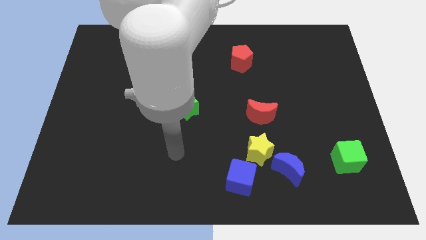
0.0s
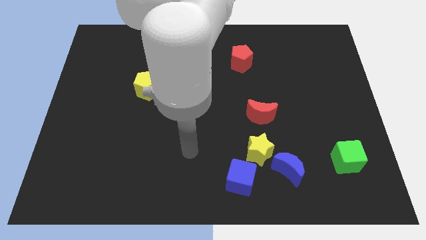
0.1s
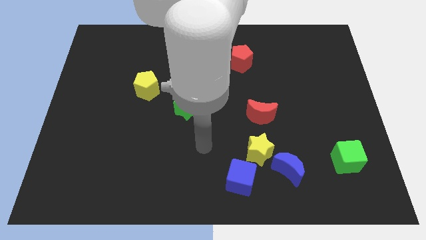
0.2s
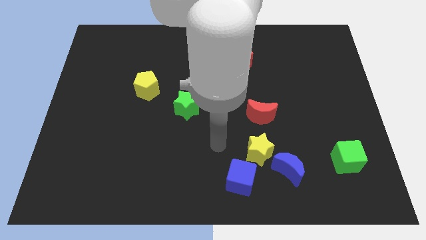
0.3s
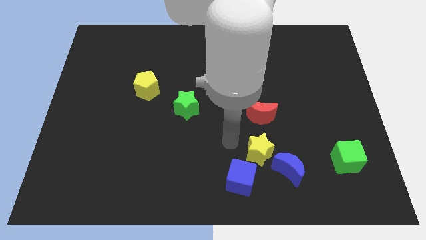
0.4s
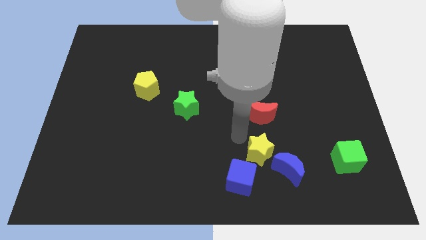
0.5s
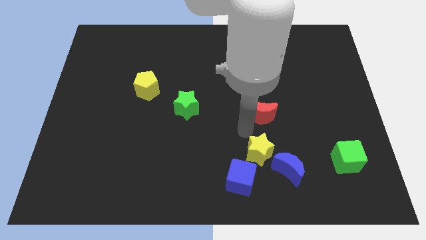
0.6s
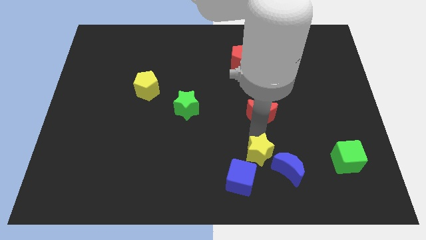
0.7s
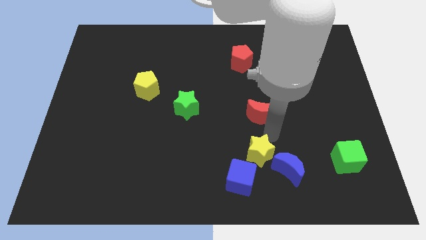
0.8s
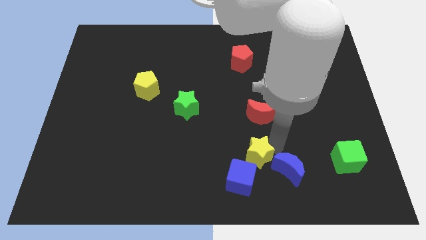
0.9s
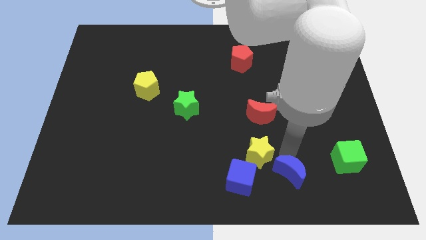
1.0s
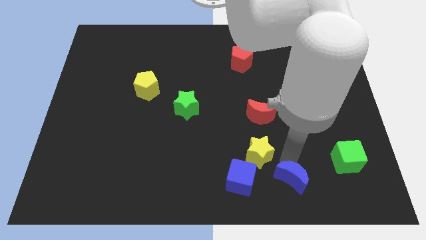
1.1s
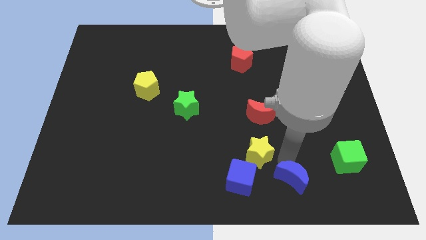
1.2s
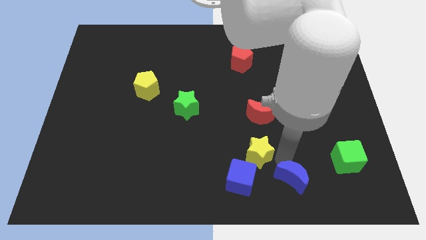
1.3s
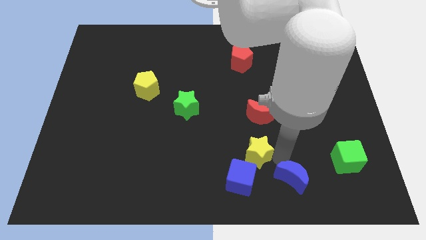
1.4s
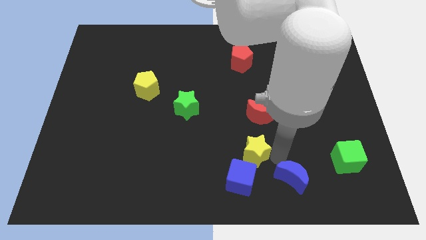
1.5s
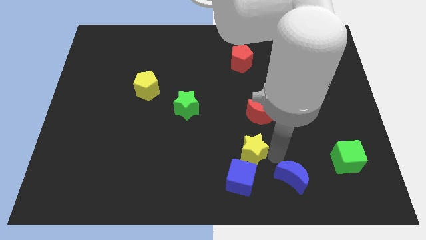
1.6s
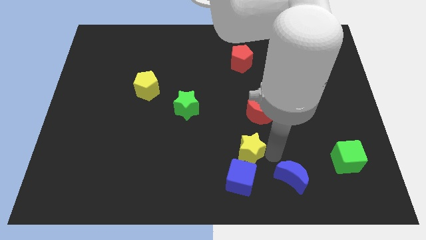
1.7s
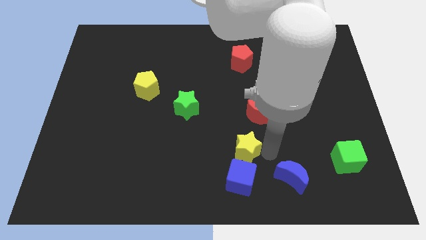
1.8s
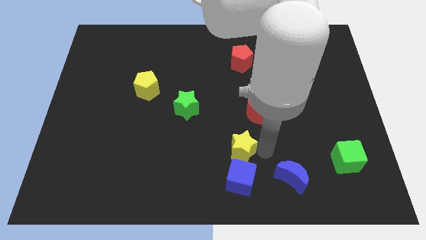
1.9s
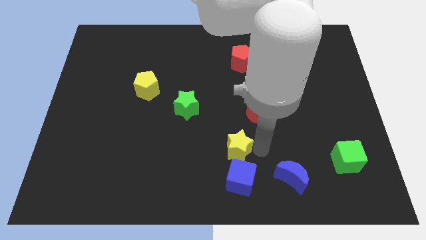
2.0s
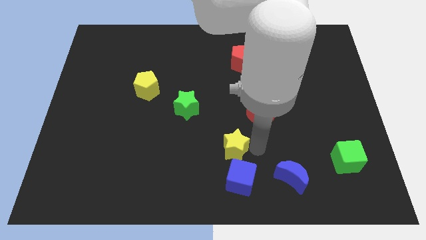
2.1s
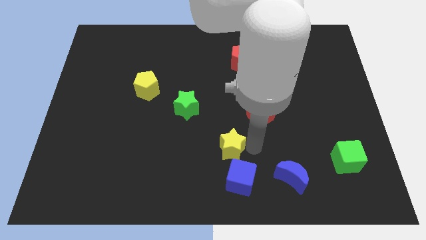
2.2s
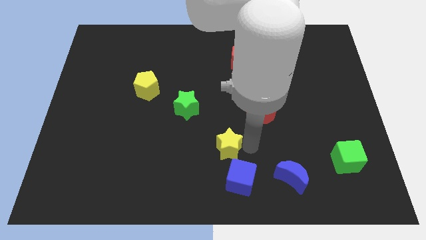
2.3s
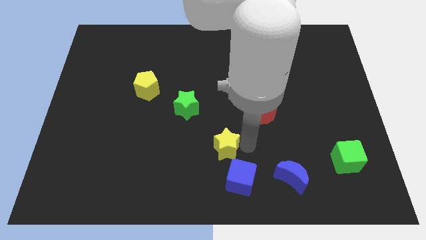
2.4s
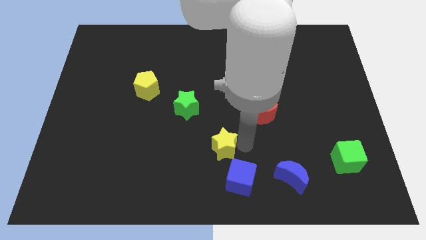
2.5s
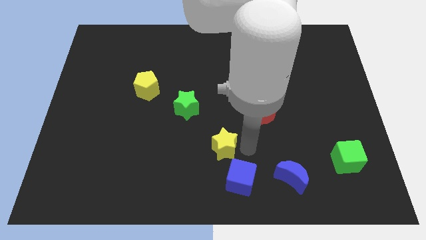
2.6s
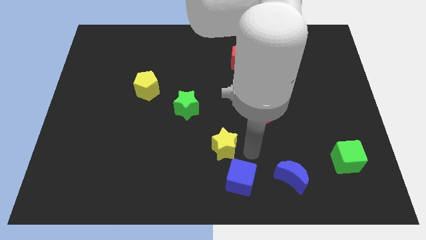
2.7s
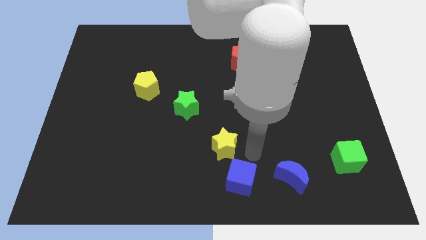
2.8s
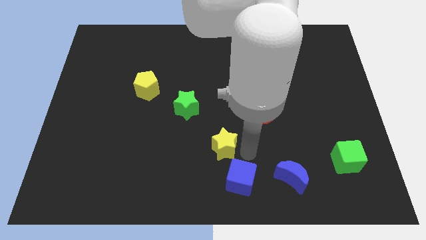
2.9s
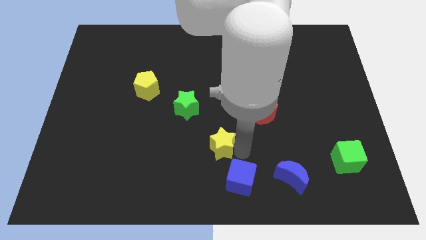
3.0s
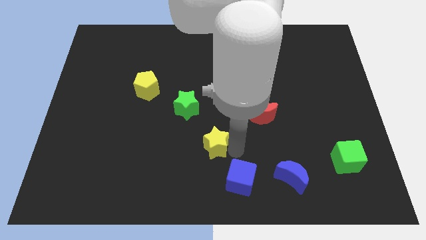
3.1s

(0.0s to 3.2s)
pull the yellow star apart from the clump

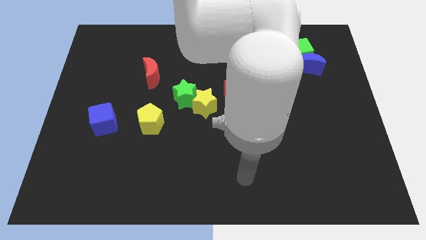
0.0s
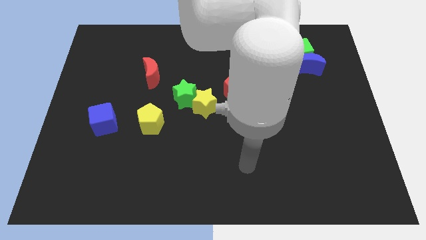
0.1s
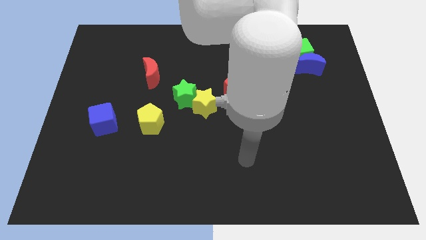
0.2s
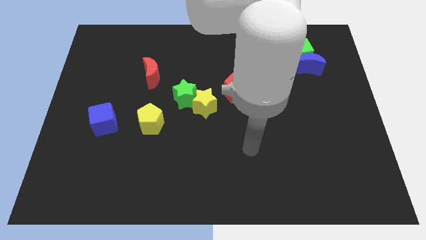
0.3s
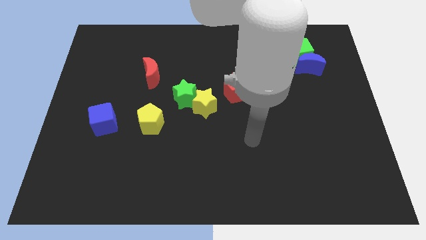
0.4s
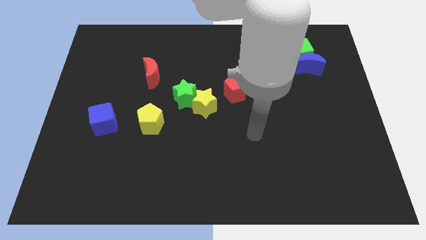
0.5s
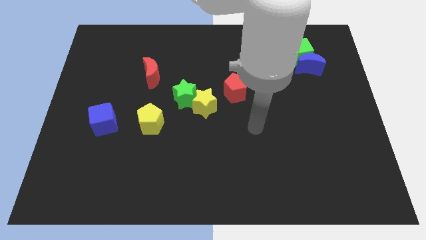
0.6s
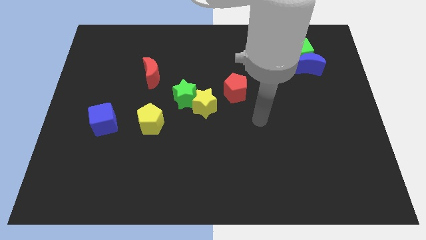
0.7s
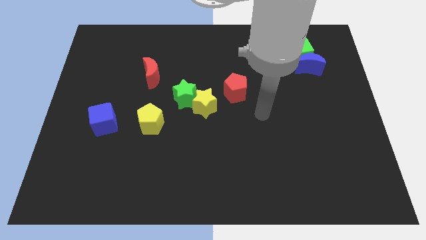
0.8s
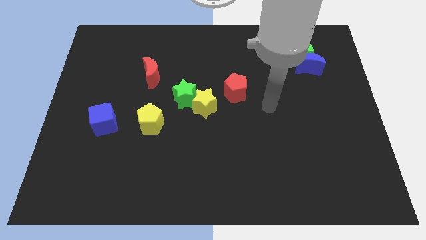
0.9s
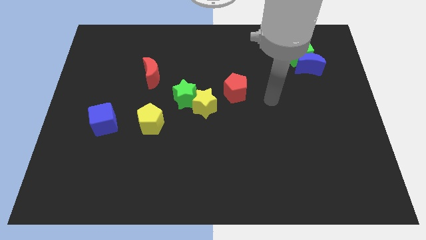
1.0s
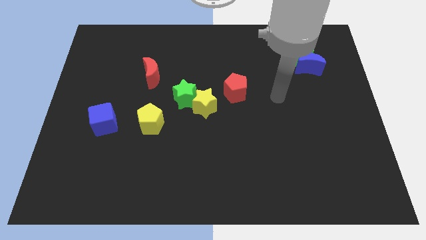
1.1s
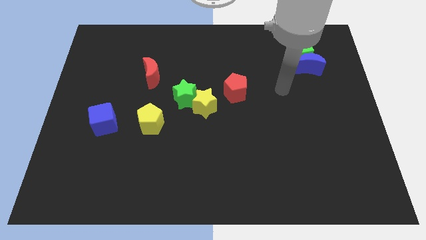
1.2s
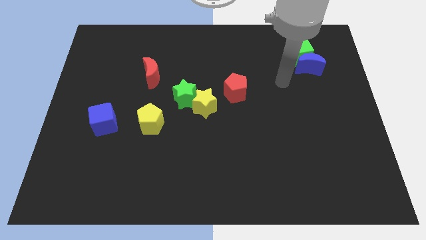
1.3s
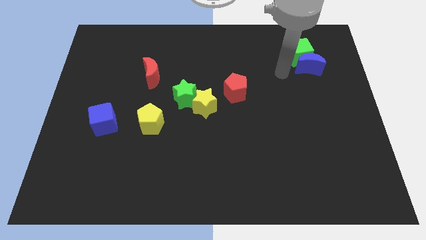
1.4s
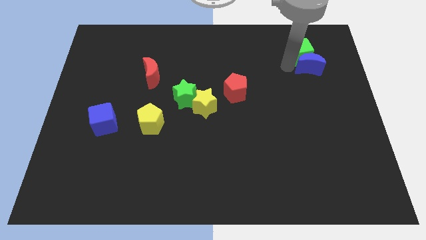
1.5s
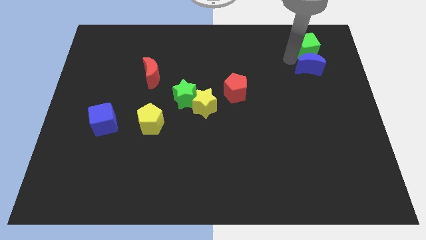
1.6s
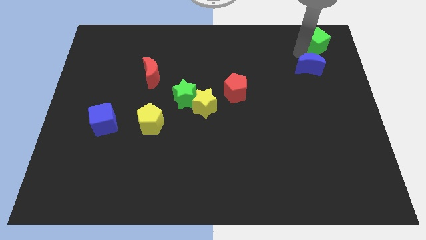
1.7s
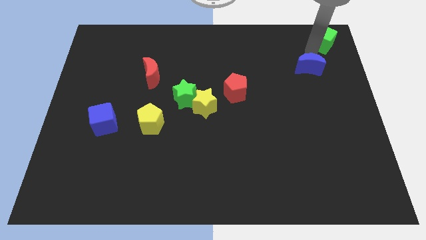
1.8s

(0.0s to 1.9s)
pull the blue moon apart from the green cube

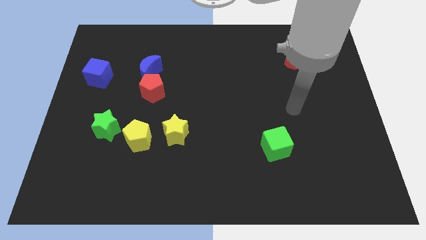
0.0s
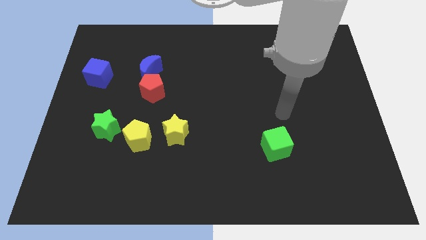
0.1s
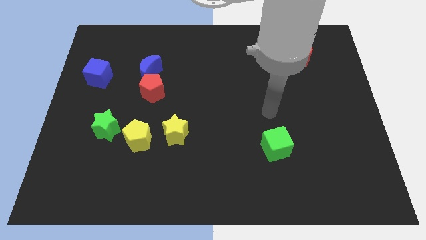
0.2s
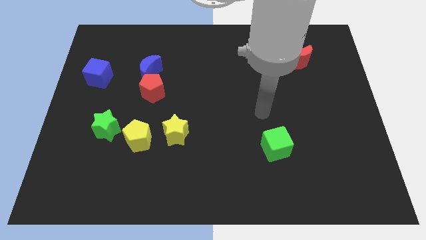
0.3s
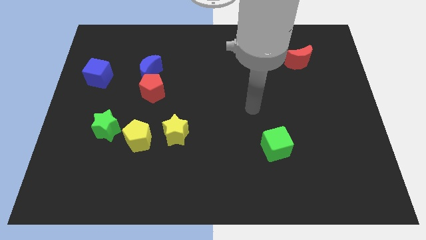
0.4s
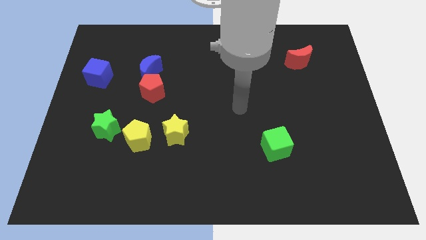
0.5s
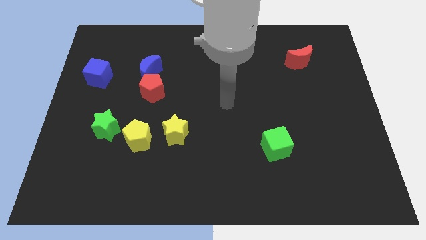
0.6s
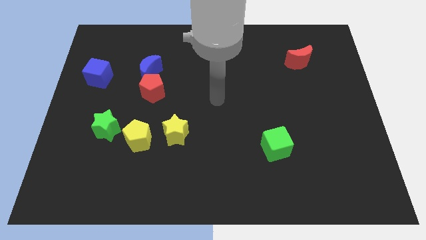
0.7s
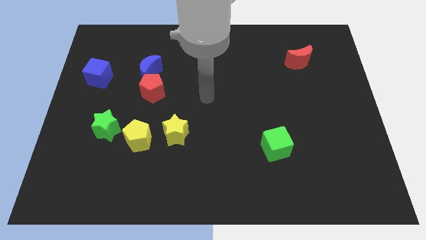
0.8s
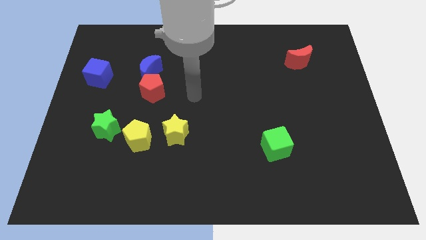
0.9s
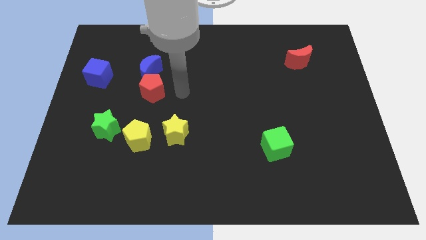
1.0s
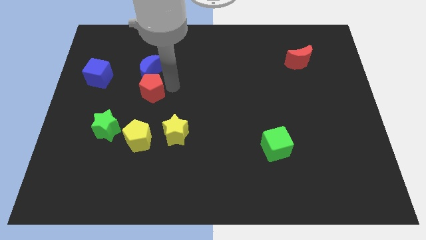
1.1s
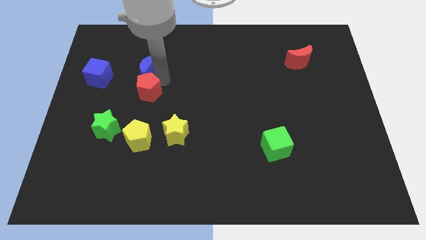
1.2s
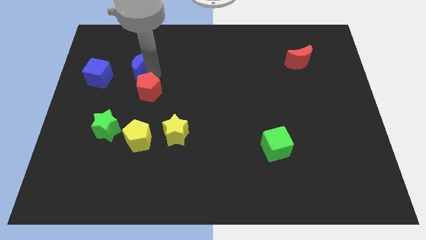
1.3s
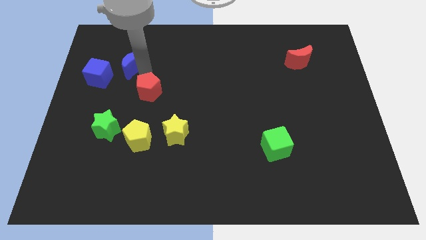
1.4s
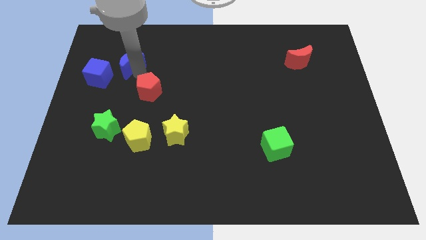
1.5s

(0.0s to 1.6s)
pull the red pentagon apart from the blue moon

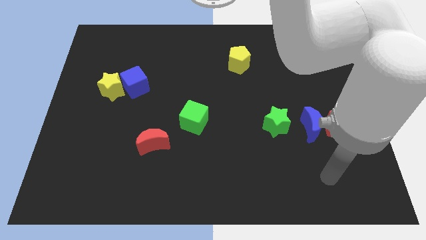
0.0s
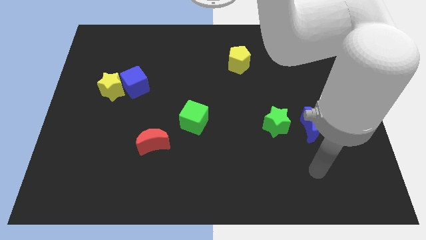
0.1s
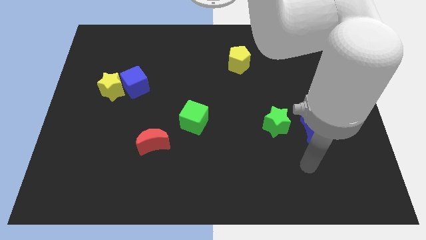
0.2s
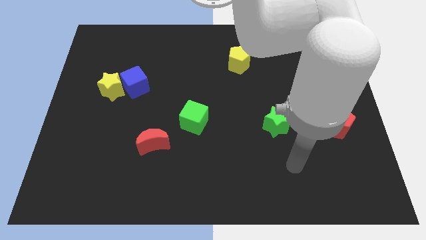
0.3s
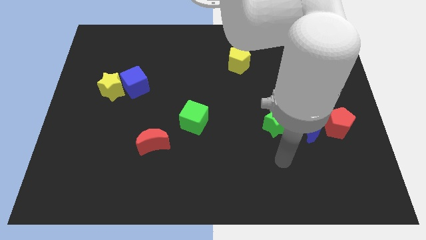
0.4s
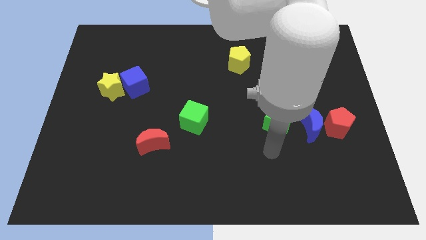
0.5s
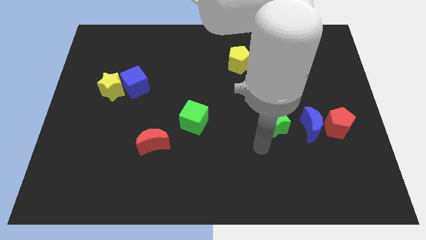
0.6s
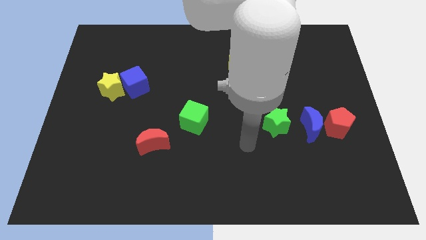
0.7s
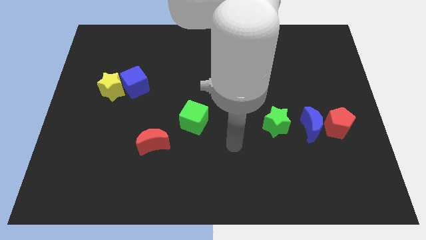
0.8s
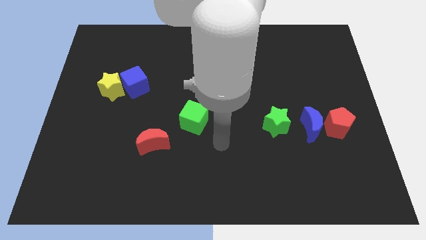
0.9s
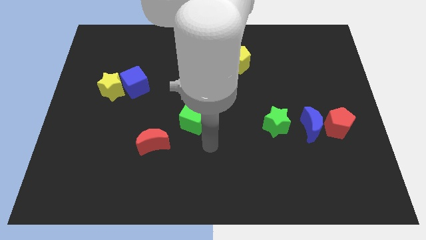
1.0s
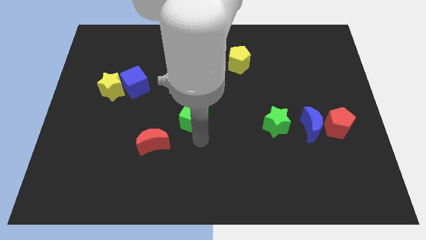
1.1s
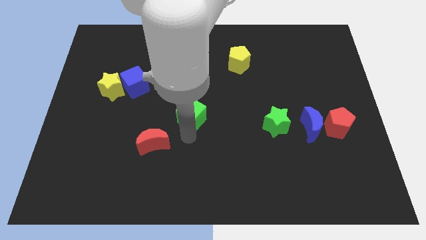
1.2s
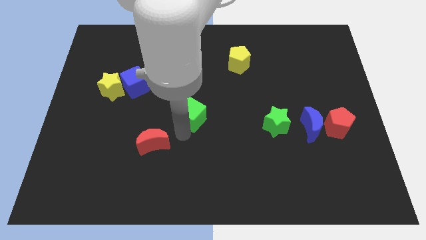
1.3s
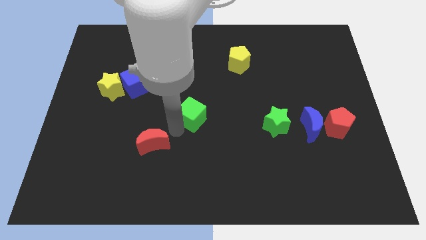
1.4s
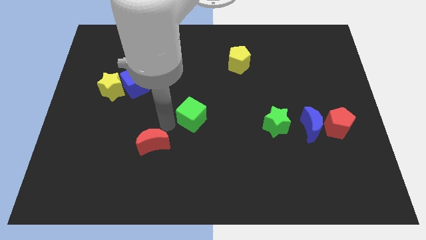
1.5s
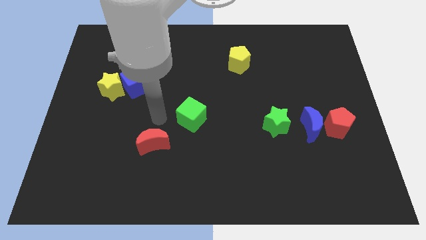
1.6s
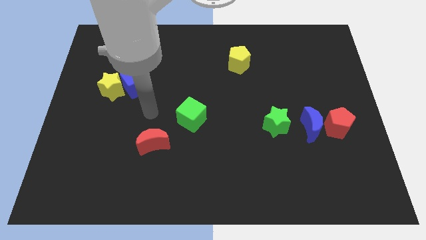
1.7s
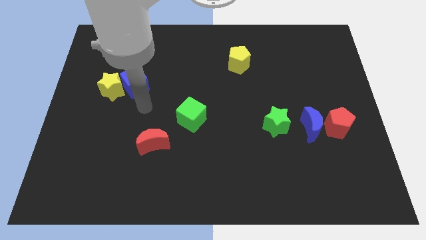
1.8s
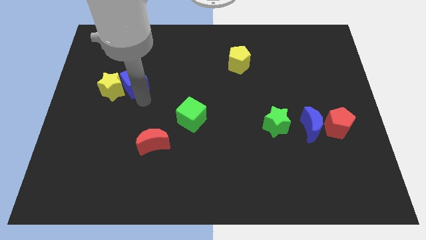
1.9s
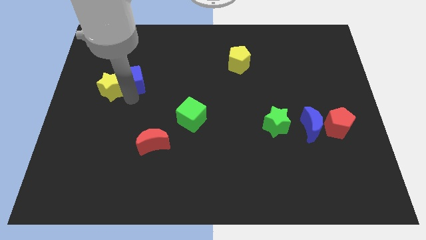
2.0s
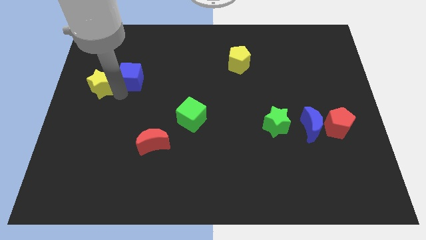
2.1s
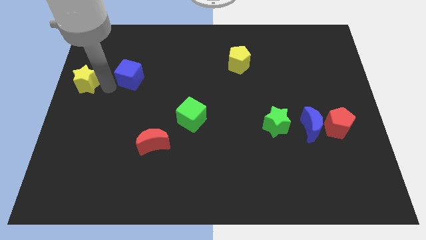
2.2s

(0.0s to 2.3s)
separate the blue cube from the yellow star

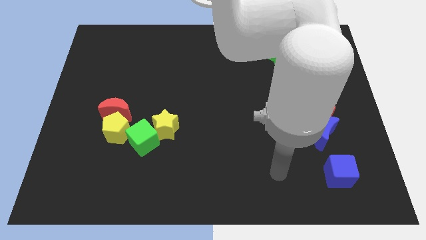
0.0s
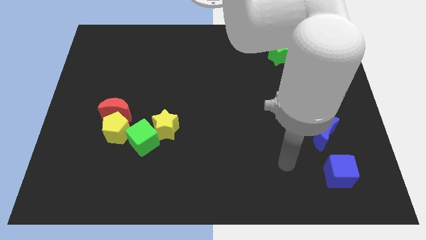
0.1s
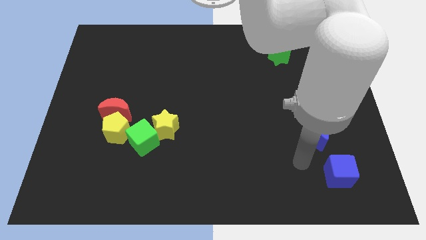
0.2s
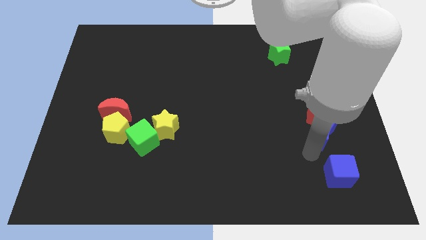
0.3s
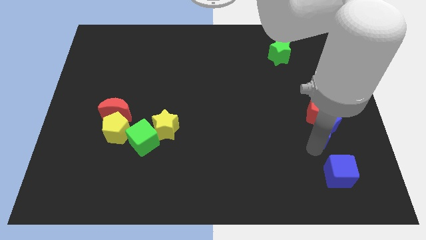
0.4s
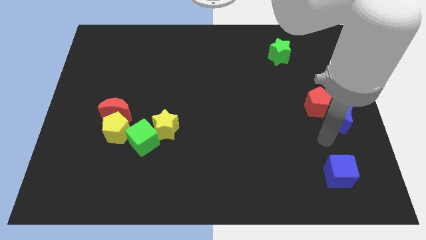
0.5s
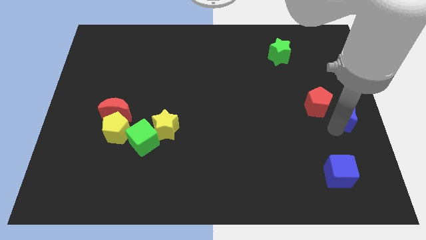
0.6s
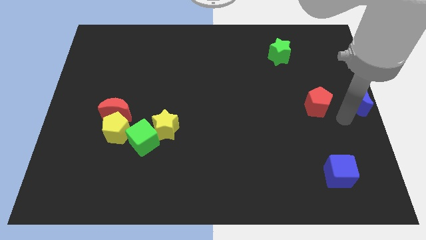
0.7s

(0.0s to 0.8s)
move the red pentagon away from the blue moon
